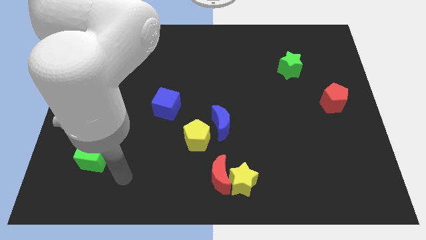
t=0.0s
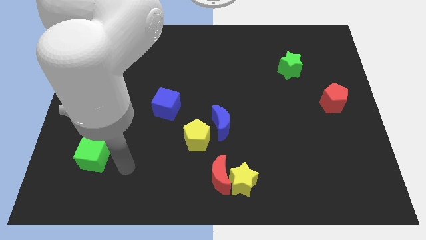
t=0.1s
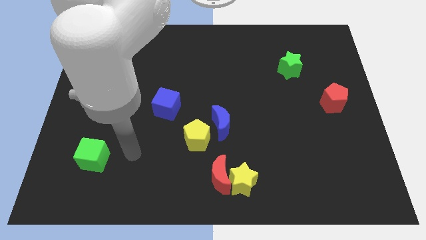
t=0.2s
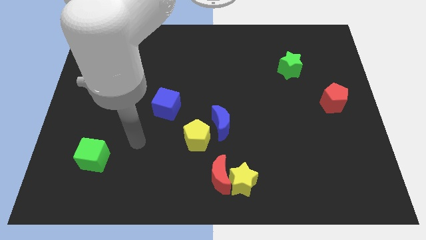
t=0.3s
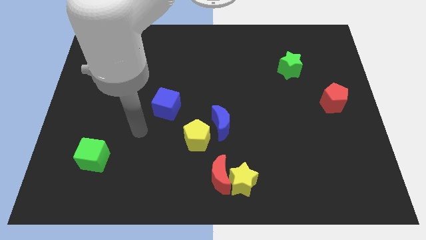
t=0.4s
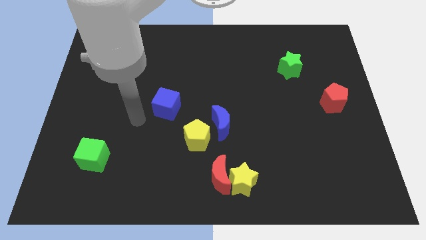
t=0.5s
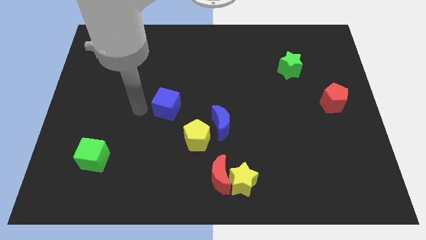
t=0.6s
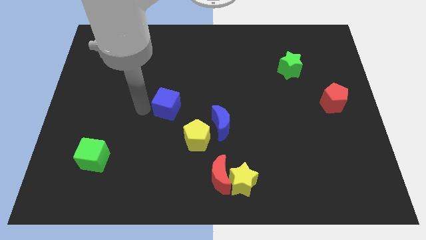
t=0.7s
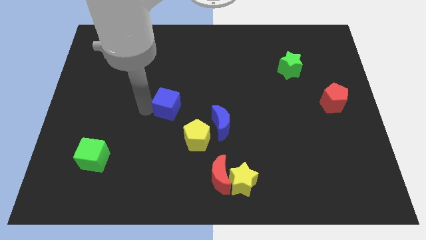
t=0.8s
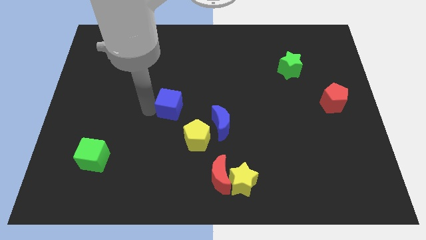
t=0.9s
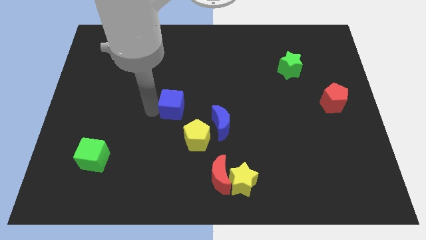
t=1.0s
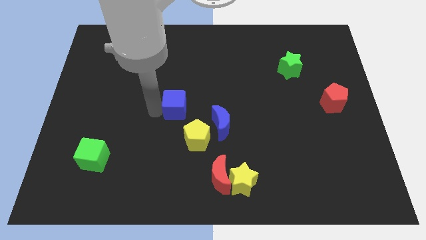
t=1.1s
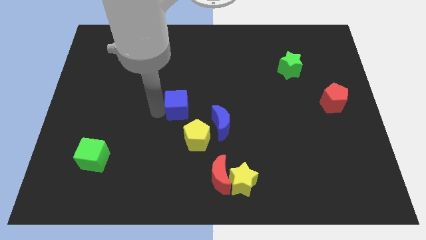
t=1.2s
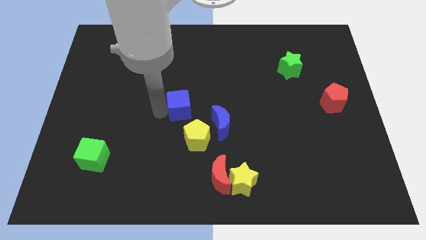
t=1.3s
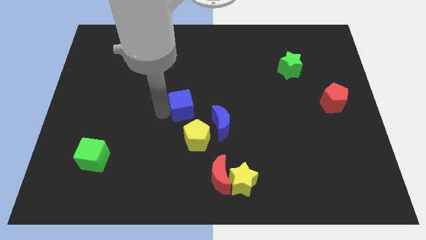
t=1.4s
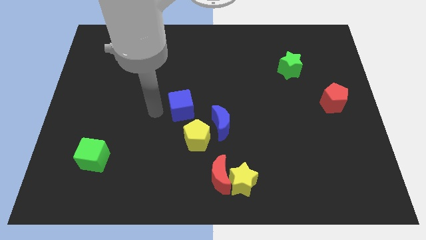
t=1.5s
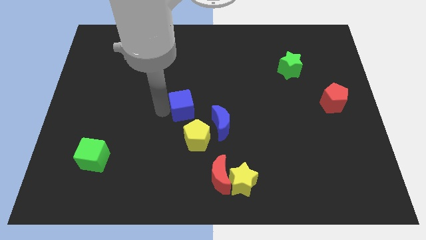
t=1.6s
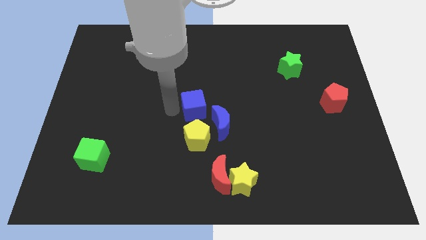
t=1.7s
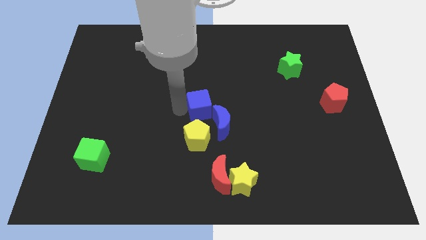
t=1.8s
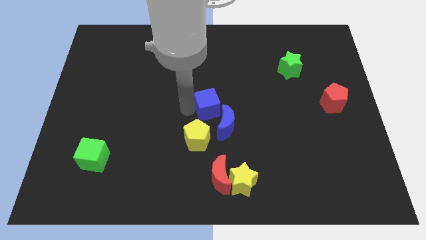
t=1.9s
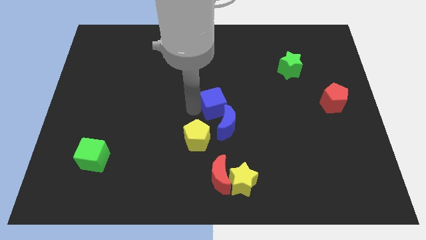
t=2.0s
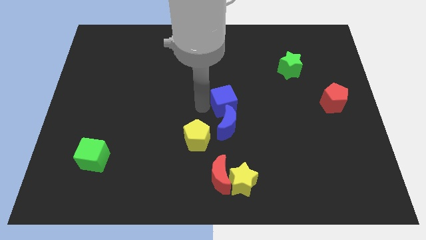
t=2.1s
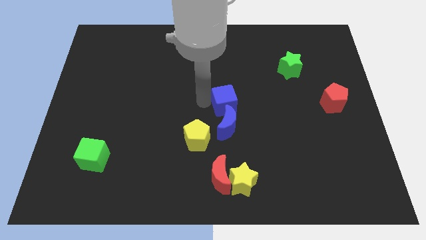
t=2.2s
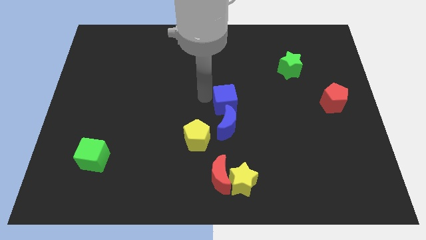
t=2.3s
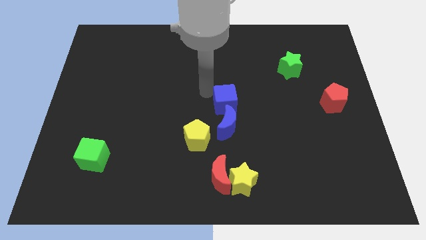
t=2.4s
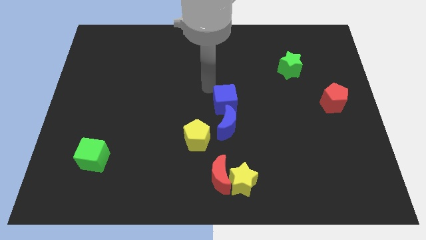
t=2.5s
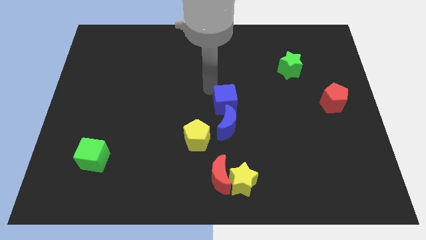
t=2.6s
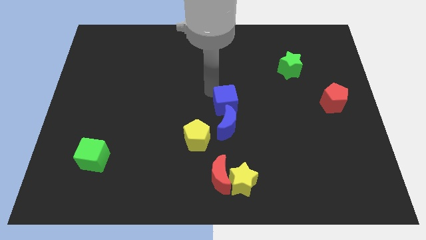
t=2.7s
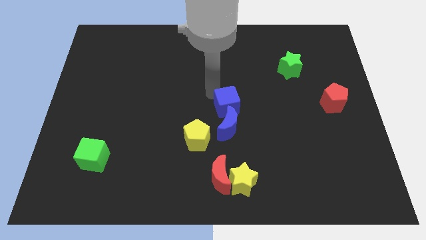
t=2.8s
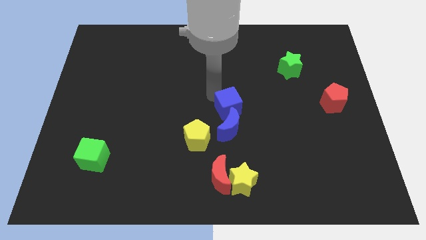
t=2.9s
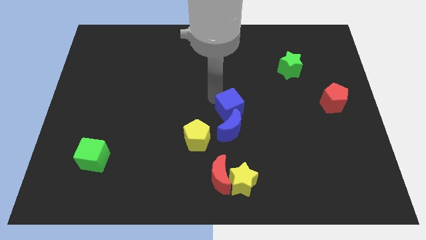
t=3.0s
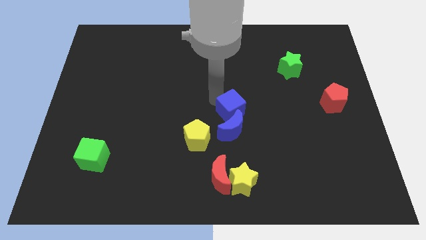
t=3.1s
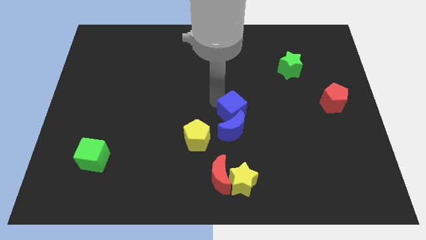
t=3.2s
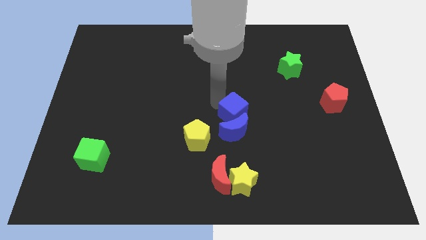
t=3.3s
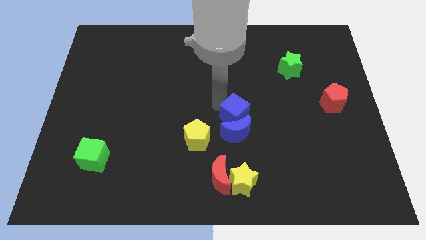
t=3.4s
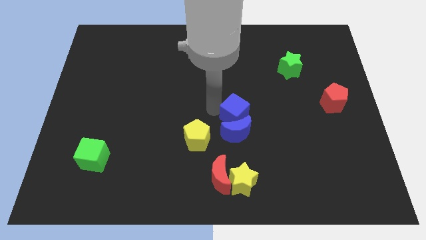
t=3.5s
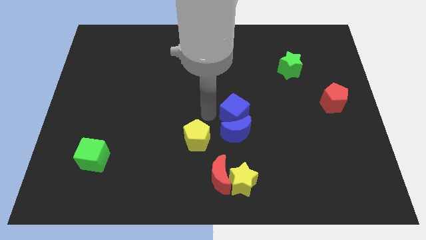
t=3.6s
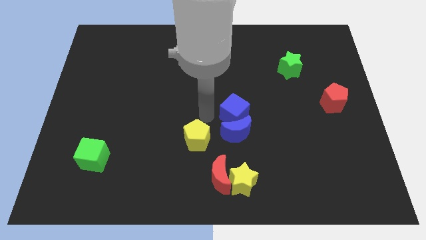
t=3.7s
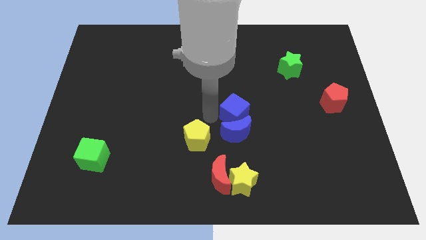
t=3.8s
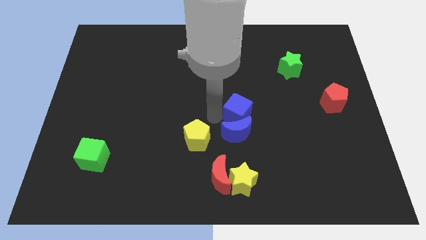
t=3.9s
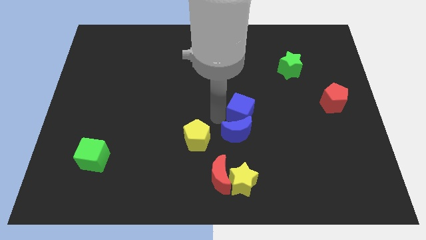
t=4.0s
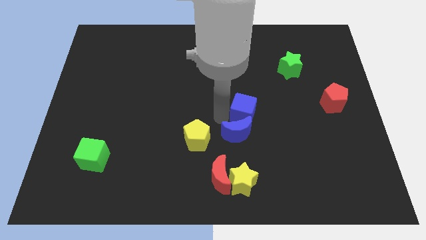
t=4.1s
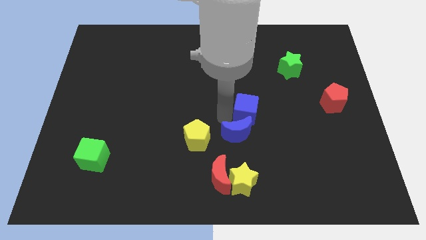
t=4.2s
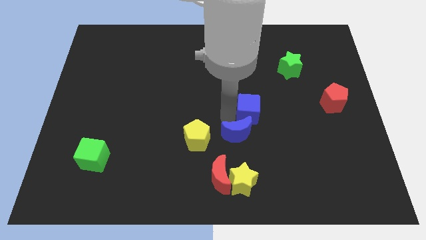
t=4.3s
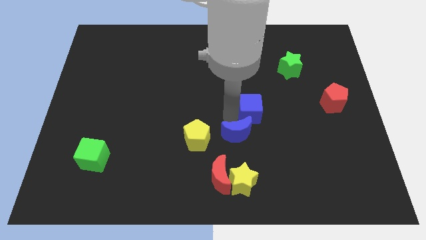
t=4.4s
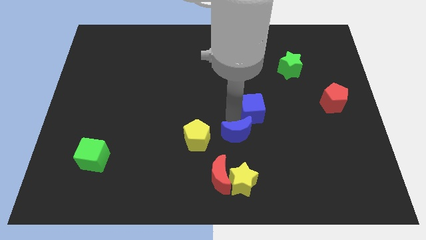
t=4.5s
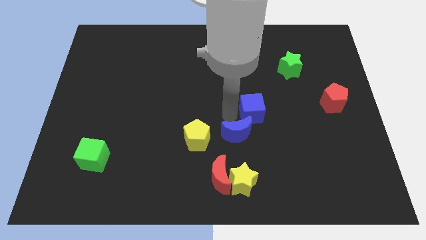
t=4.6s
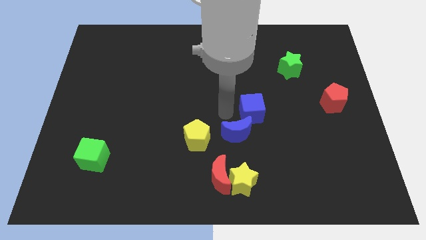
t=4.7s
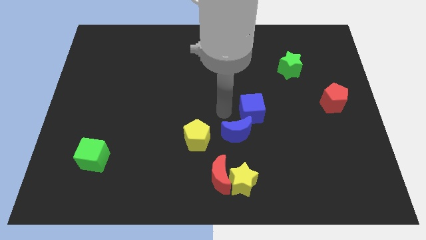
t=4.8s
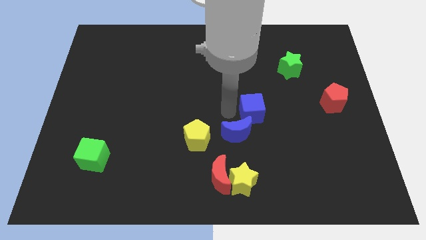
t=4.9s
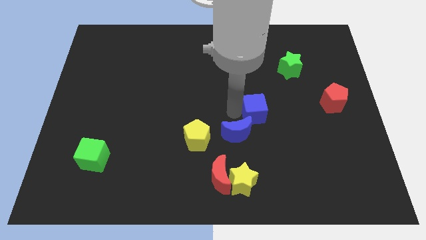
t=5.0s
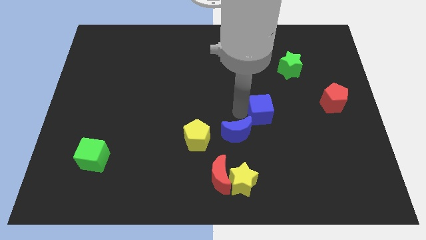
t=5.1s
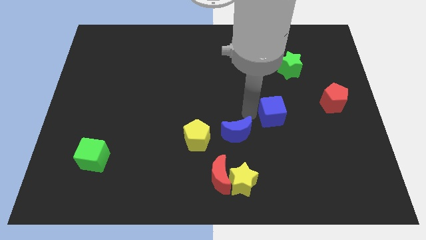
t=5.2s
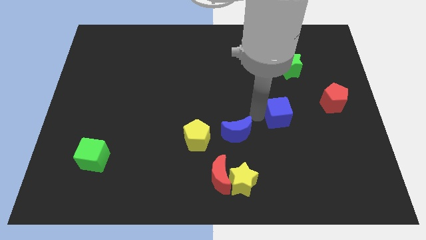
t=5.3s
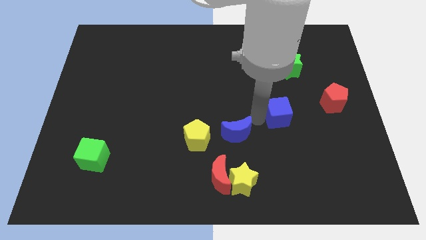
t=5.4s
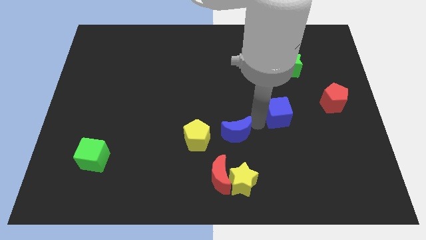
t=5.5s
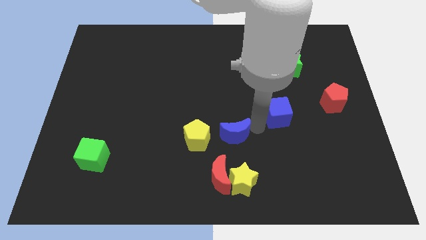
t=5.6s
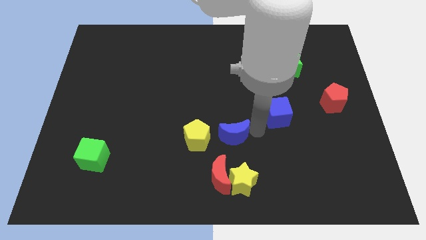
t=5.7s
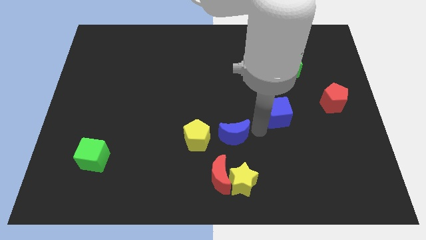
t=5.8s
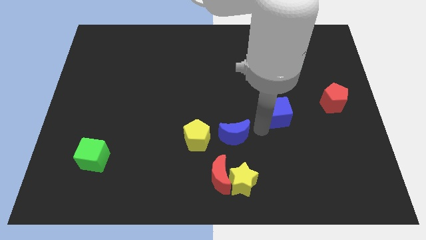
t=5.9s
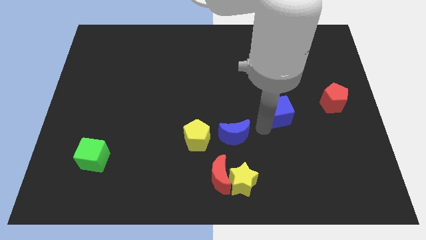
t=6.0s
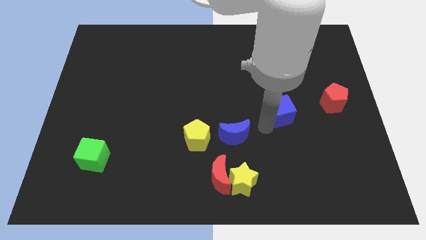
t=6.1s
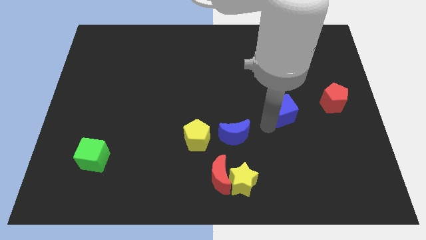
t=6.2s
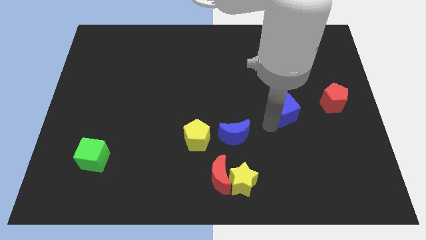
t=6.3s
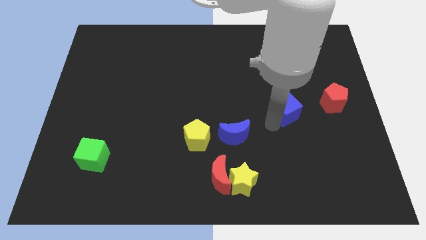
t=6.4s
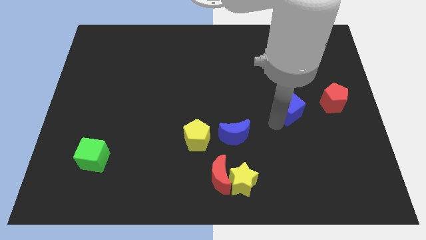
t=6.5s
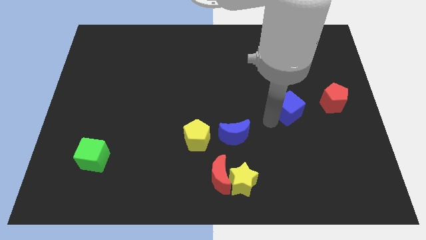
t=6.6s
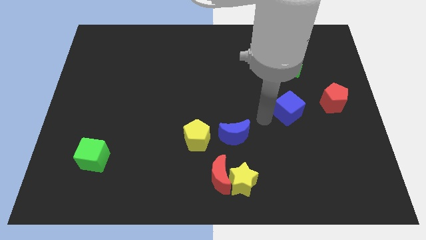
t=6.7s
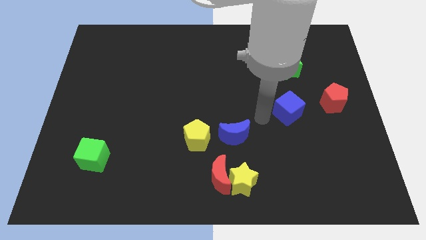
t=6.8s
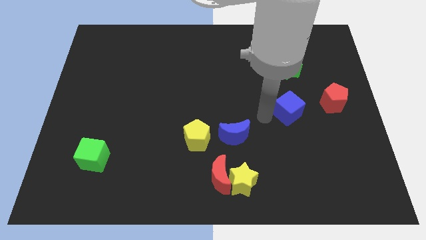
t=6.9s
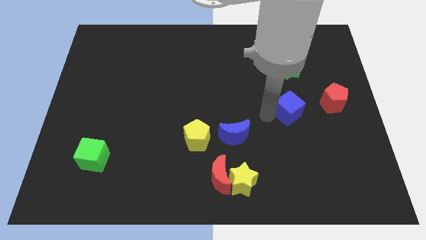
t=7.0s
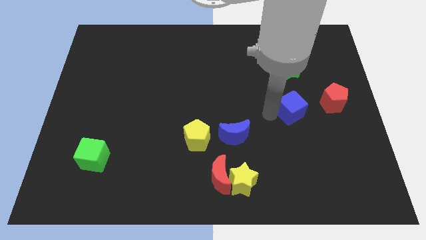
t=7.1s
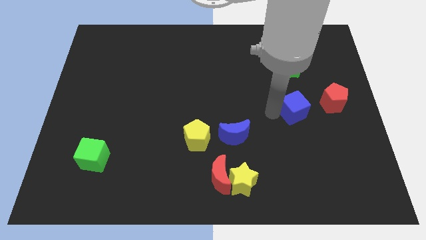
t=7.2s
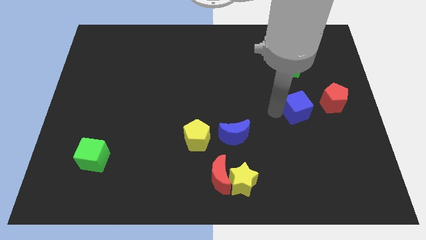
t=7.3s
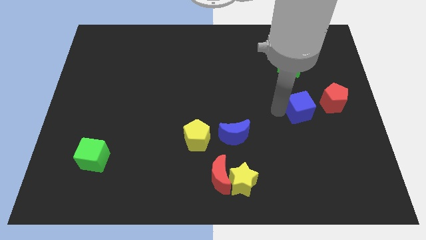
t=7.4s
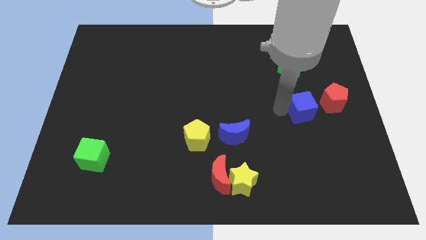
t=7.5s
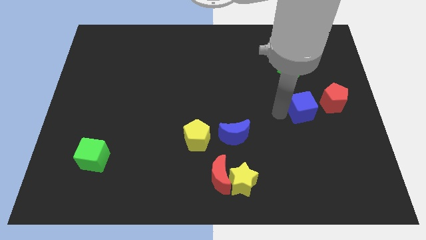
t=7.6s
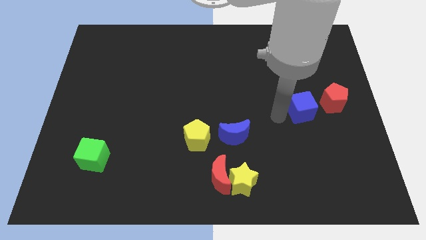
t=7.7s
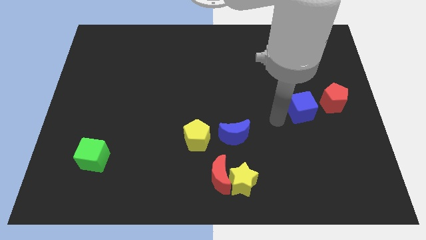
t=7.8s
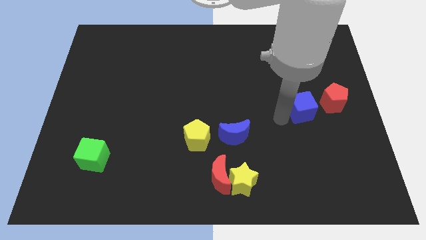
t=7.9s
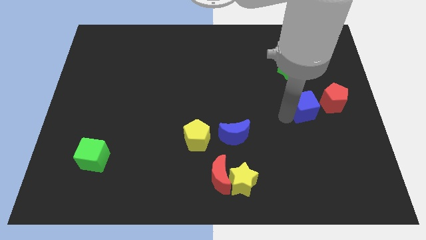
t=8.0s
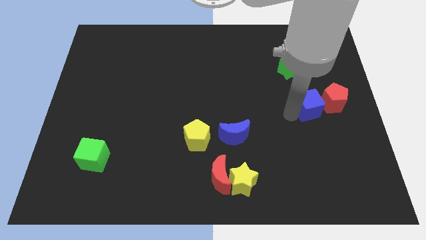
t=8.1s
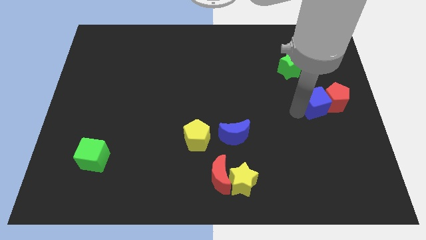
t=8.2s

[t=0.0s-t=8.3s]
put the blue cube to the red pentagon
